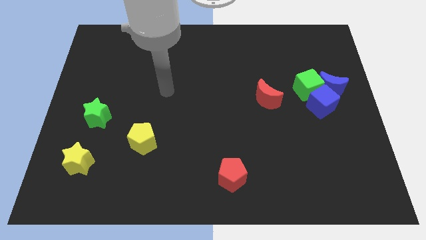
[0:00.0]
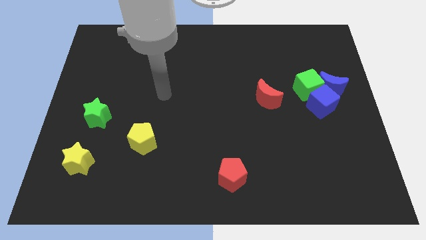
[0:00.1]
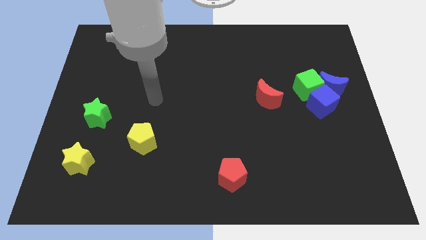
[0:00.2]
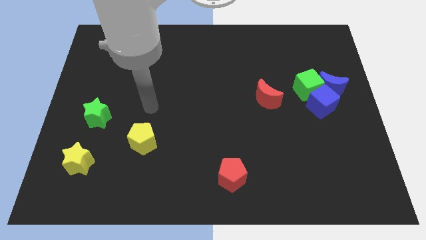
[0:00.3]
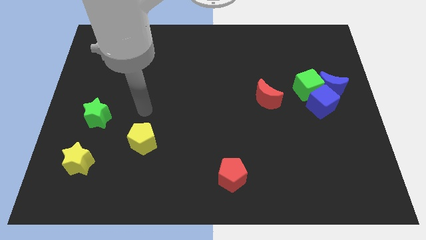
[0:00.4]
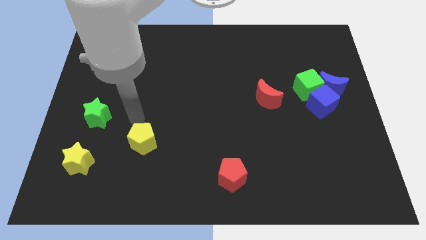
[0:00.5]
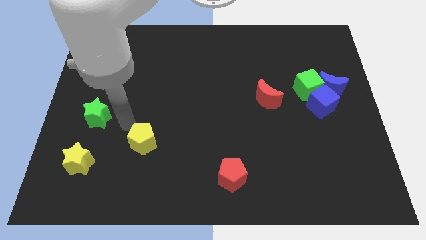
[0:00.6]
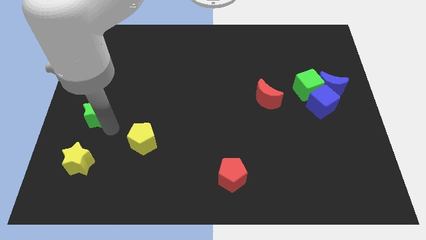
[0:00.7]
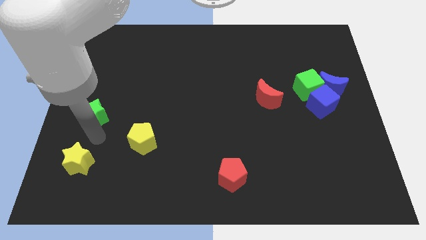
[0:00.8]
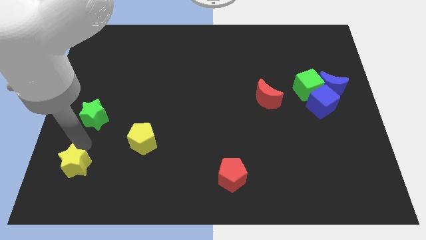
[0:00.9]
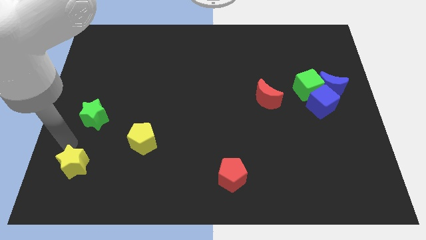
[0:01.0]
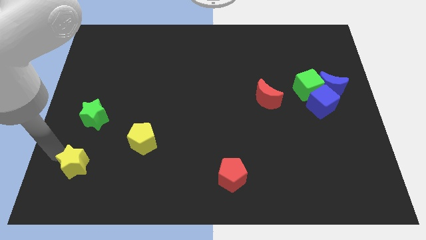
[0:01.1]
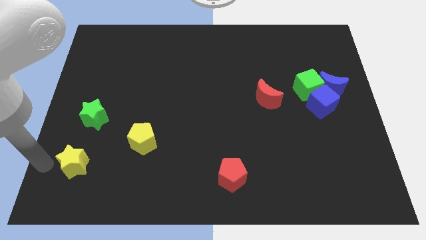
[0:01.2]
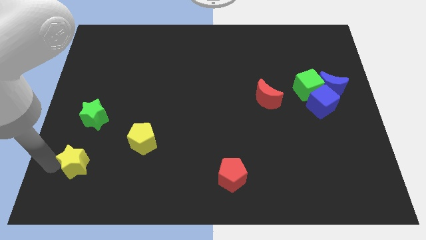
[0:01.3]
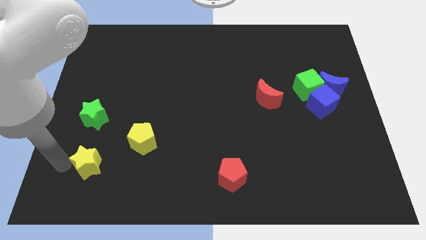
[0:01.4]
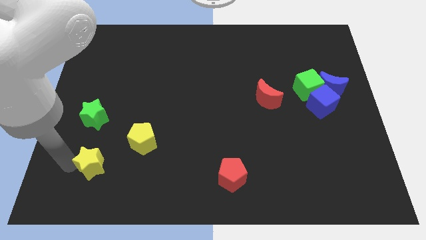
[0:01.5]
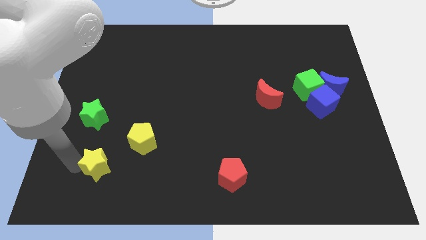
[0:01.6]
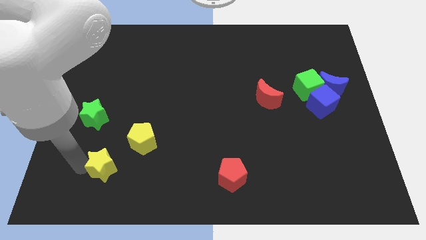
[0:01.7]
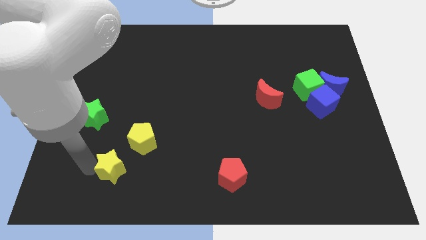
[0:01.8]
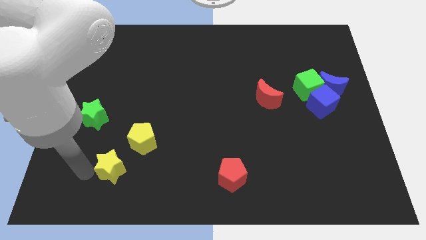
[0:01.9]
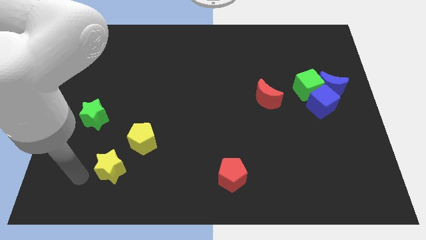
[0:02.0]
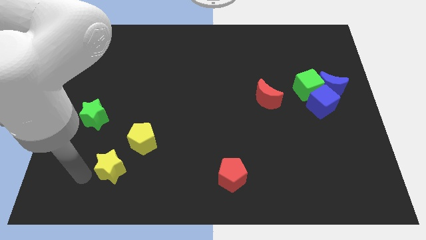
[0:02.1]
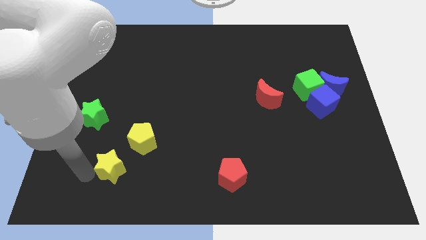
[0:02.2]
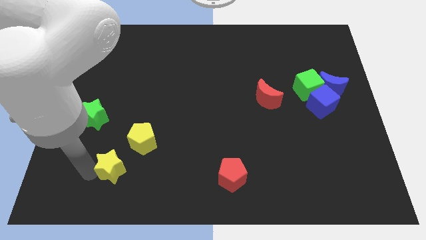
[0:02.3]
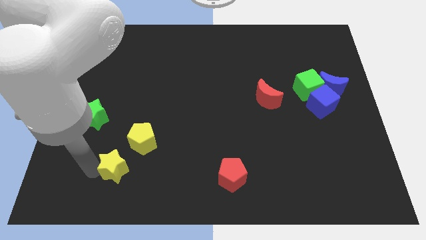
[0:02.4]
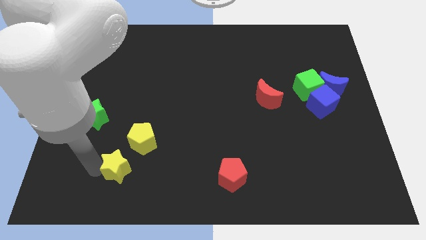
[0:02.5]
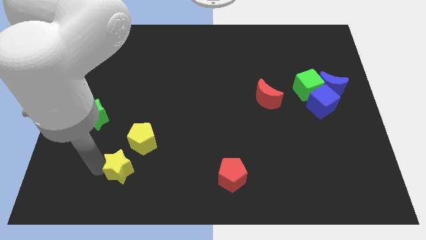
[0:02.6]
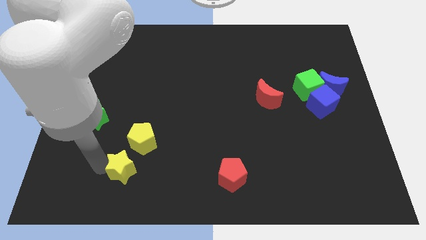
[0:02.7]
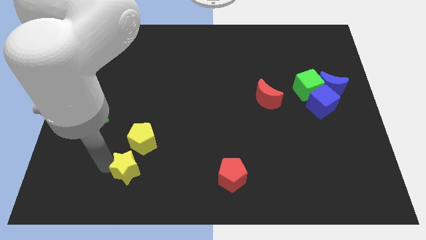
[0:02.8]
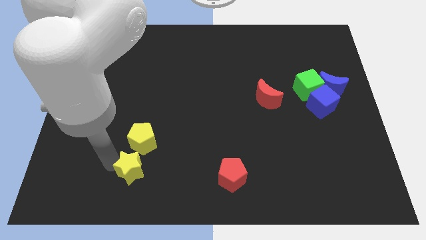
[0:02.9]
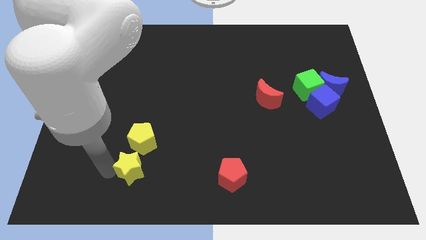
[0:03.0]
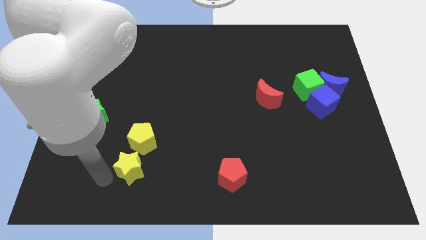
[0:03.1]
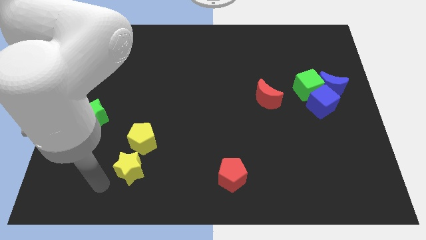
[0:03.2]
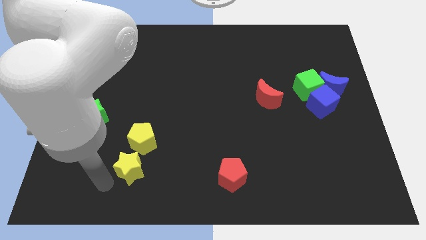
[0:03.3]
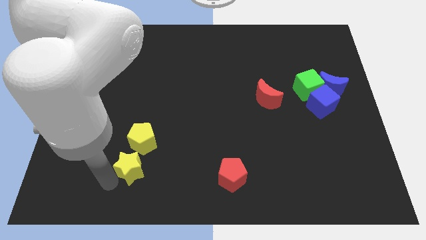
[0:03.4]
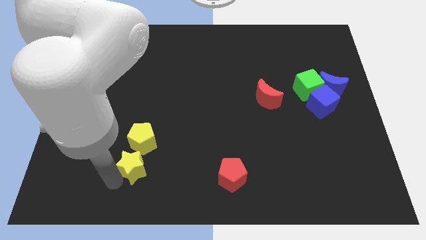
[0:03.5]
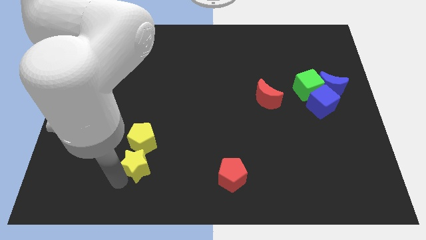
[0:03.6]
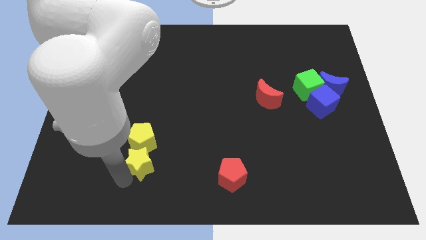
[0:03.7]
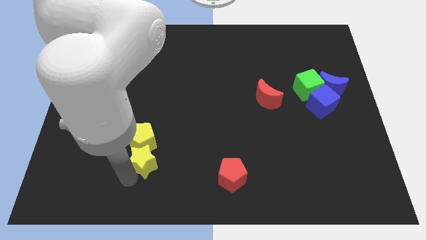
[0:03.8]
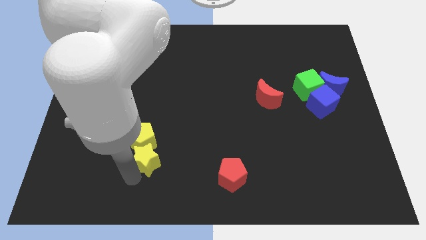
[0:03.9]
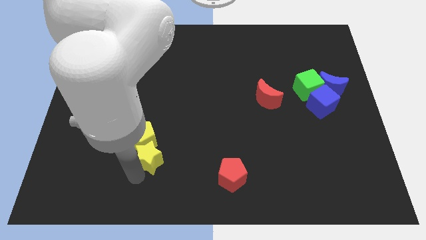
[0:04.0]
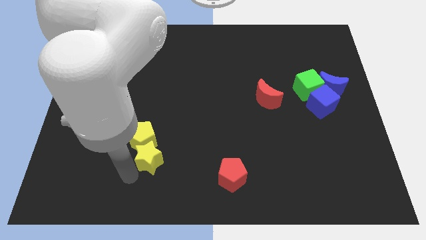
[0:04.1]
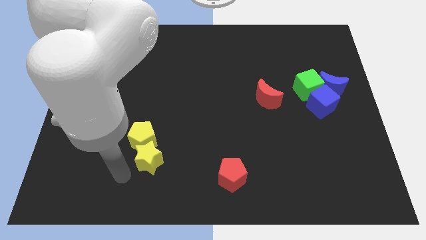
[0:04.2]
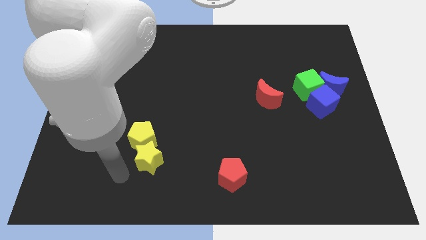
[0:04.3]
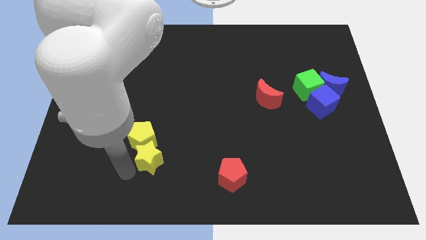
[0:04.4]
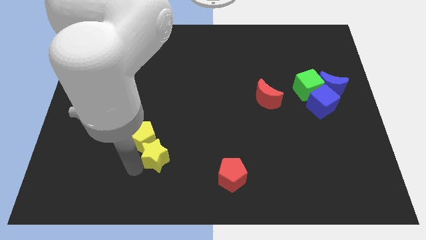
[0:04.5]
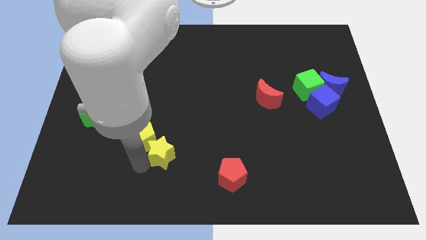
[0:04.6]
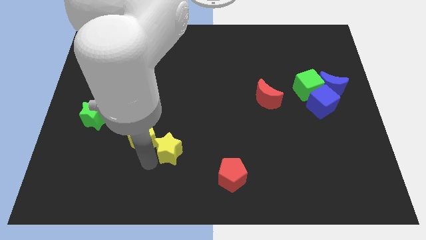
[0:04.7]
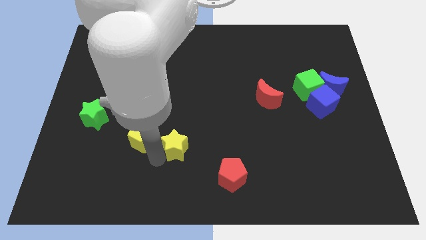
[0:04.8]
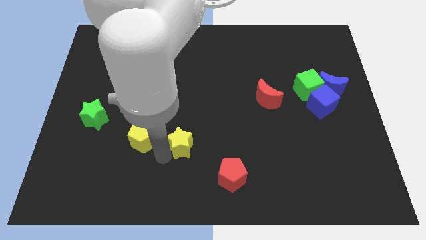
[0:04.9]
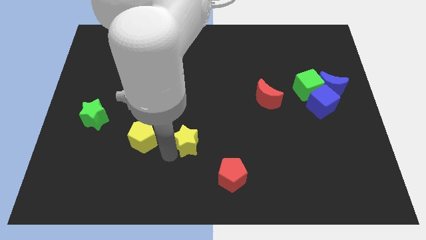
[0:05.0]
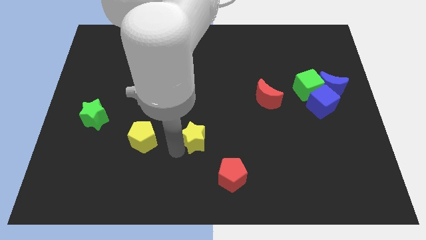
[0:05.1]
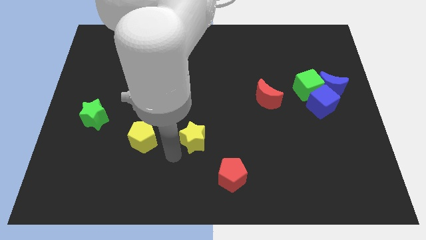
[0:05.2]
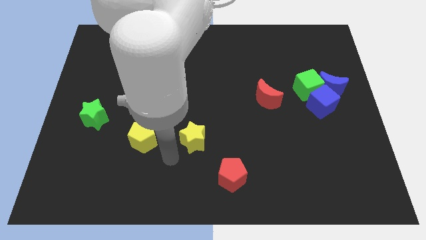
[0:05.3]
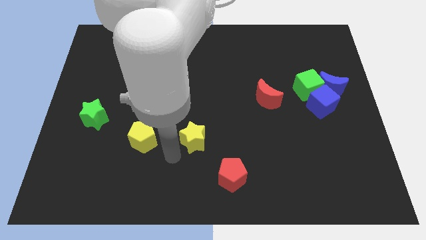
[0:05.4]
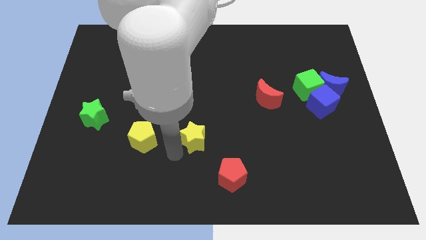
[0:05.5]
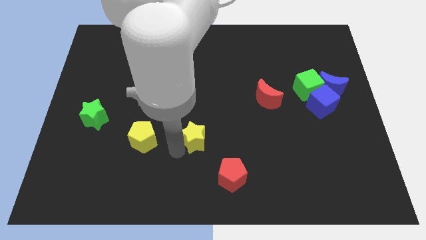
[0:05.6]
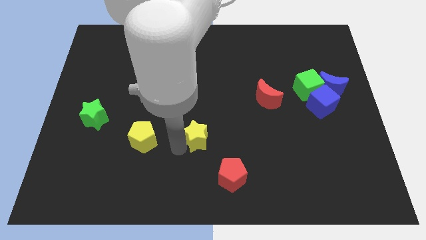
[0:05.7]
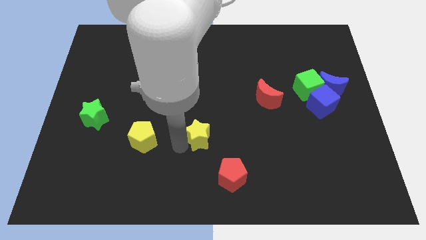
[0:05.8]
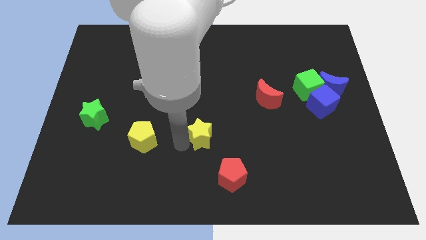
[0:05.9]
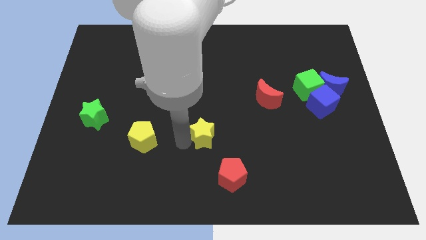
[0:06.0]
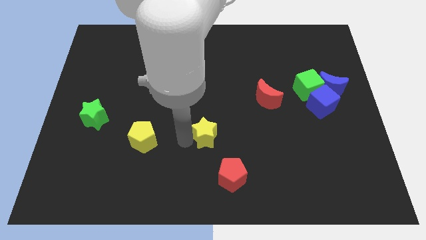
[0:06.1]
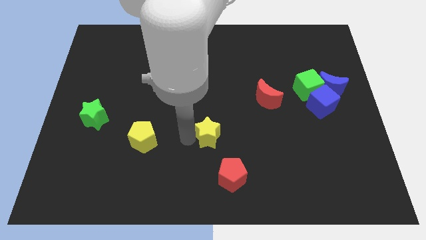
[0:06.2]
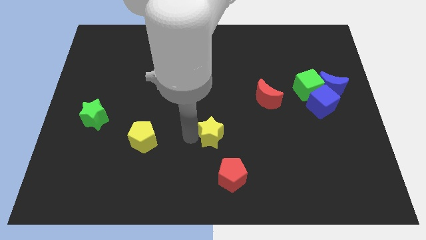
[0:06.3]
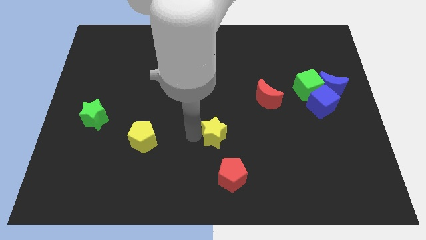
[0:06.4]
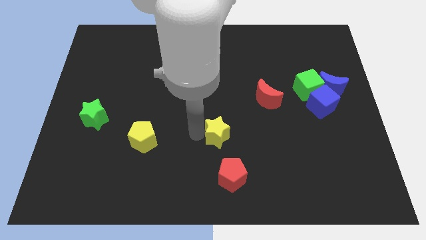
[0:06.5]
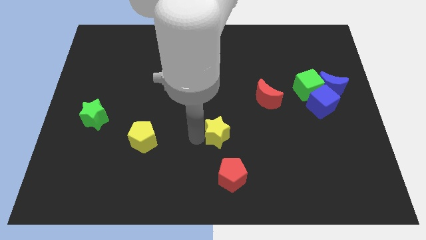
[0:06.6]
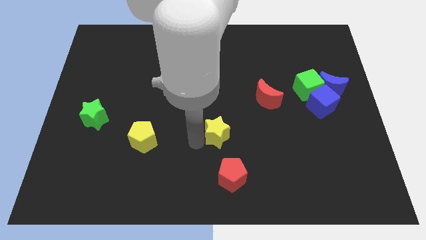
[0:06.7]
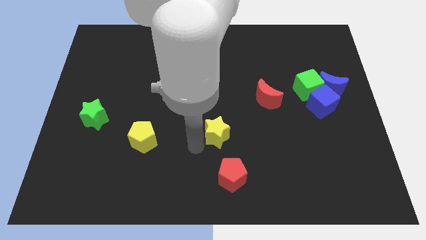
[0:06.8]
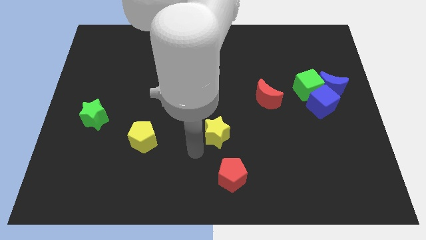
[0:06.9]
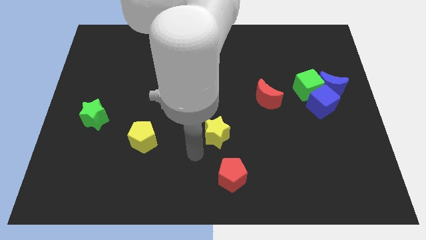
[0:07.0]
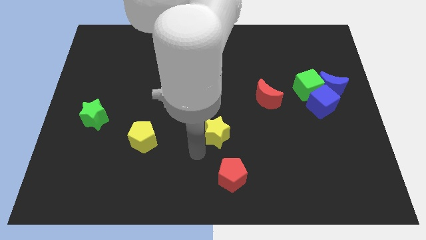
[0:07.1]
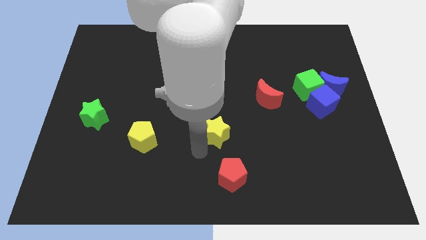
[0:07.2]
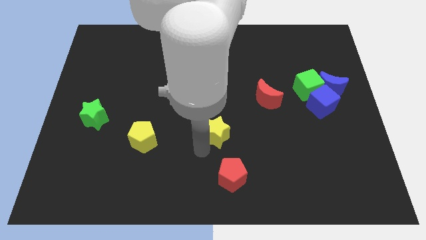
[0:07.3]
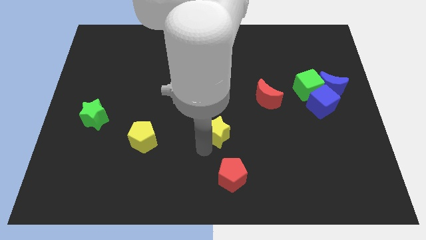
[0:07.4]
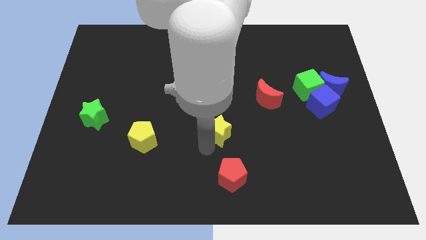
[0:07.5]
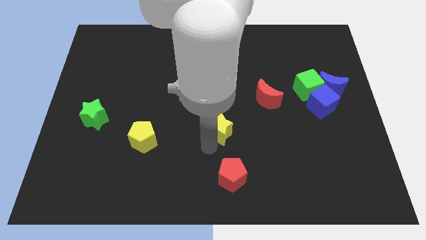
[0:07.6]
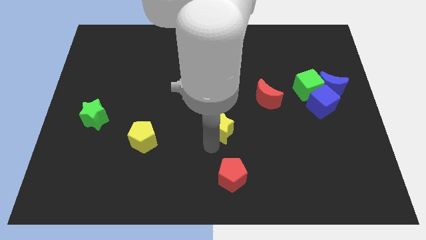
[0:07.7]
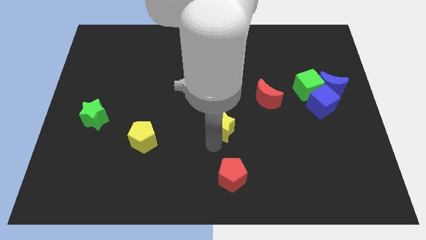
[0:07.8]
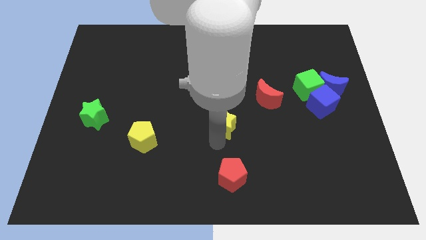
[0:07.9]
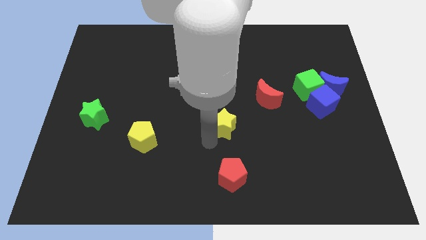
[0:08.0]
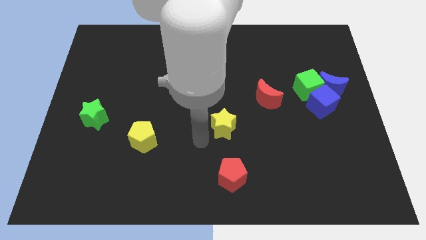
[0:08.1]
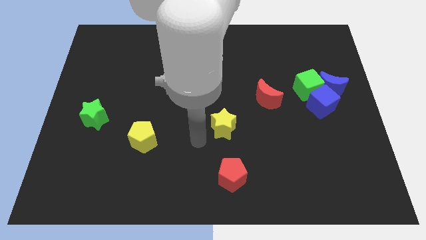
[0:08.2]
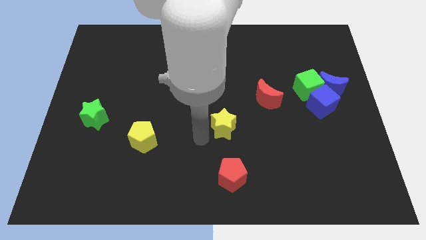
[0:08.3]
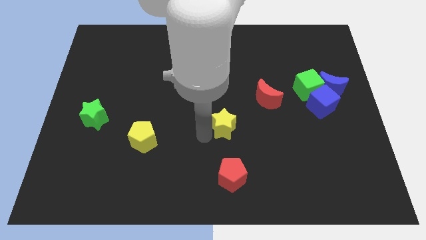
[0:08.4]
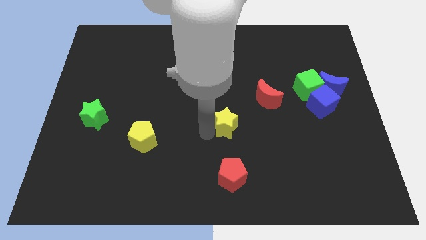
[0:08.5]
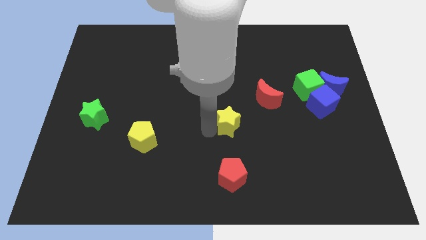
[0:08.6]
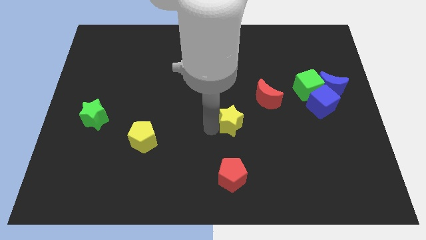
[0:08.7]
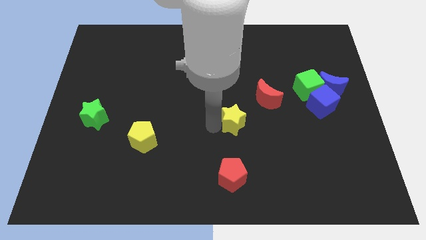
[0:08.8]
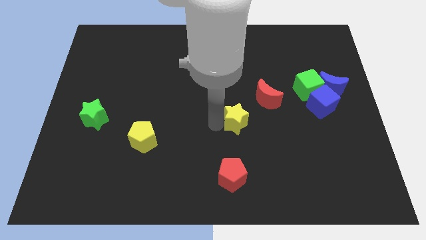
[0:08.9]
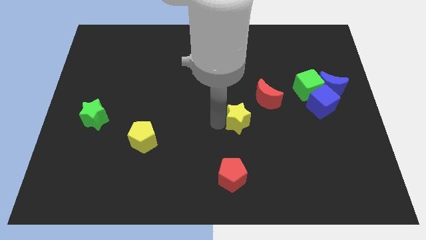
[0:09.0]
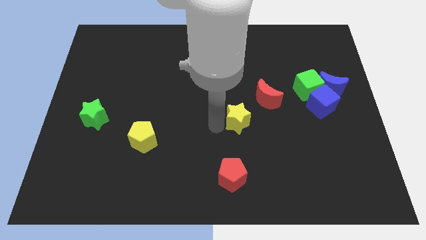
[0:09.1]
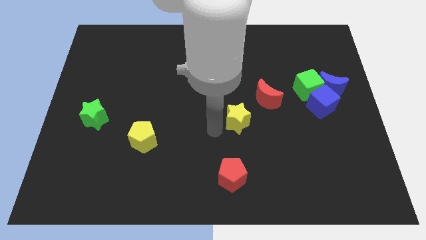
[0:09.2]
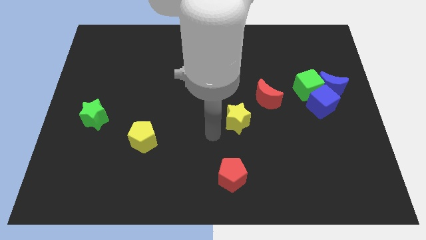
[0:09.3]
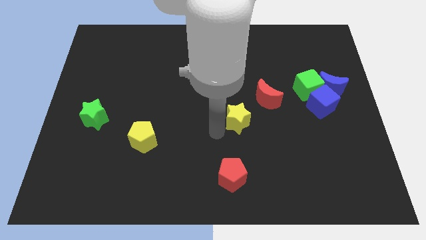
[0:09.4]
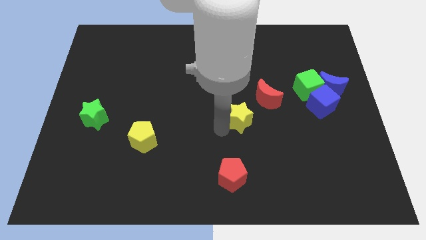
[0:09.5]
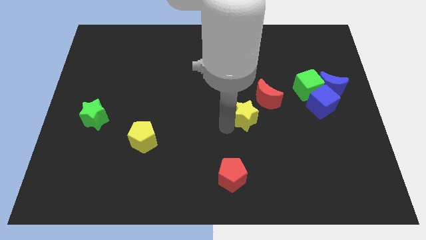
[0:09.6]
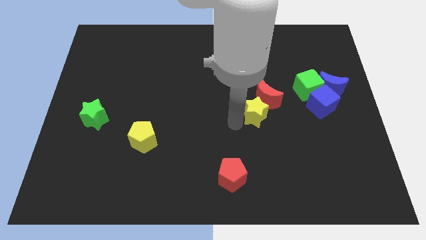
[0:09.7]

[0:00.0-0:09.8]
push the yellow star towards the red moon
